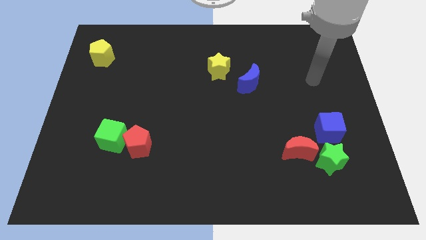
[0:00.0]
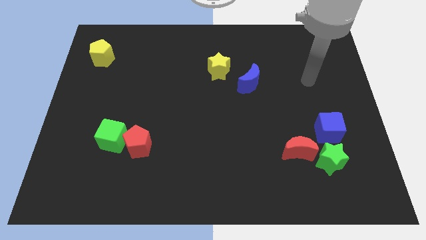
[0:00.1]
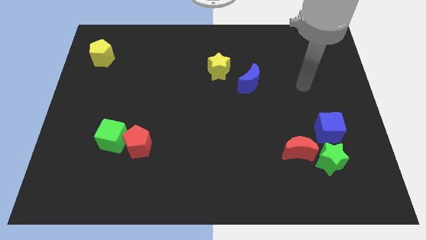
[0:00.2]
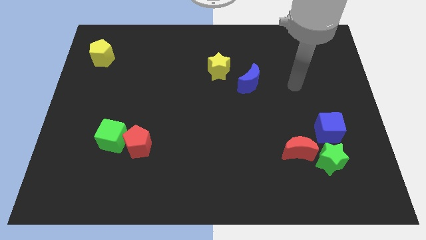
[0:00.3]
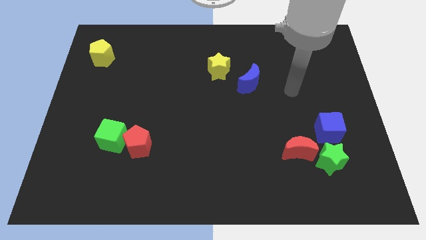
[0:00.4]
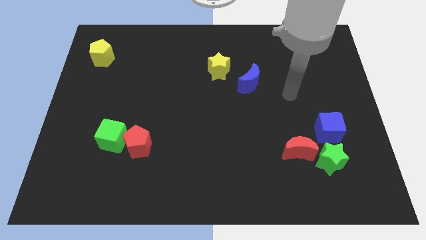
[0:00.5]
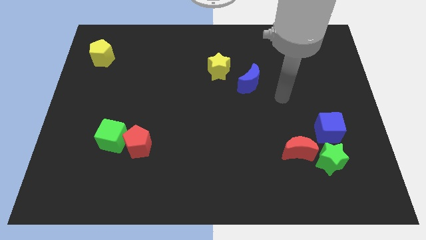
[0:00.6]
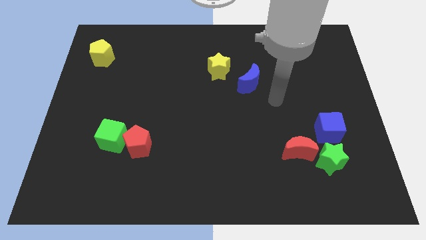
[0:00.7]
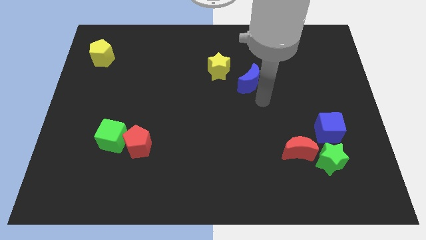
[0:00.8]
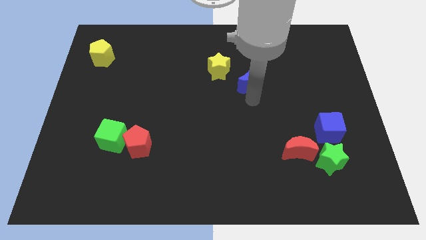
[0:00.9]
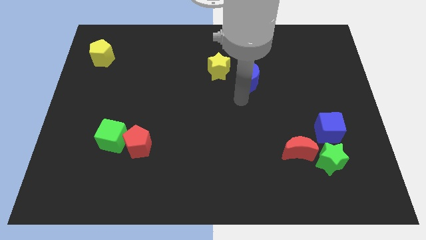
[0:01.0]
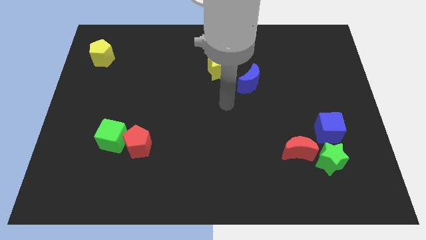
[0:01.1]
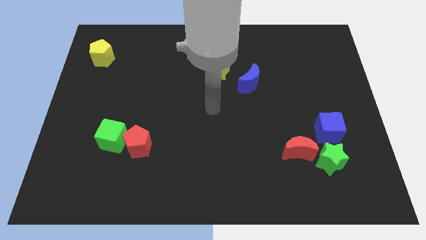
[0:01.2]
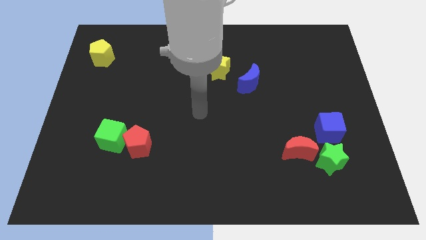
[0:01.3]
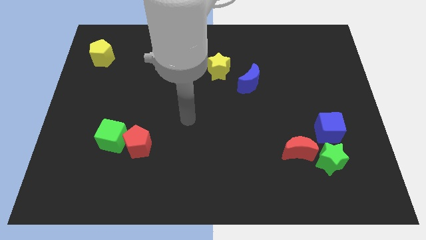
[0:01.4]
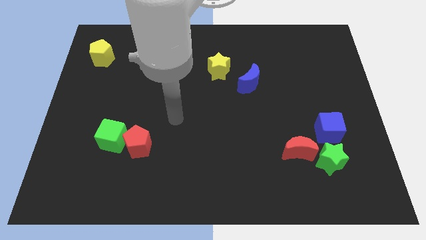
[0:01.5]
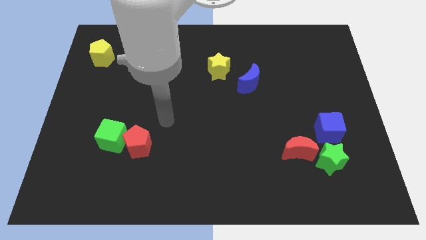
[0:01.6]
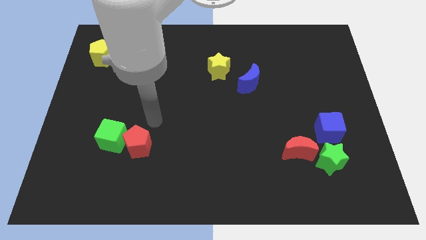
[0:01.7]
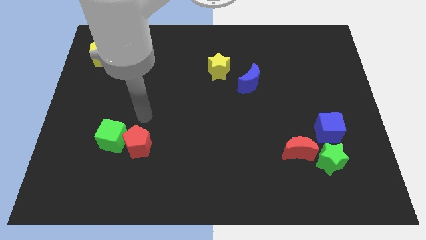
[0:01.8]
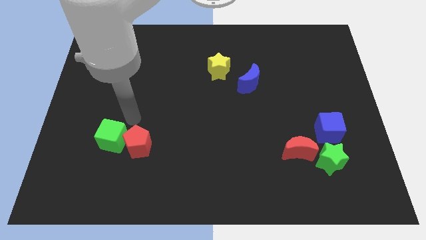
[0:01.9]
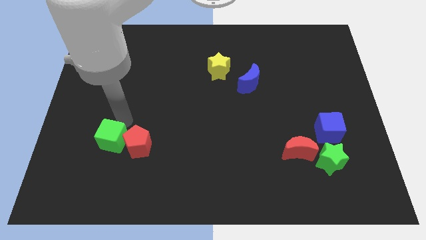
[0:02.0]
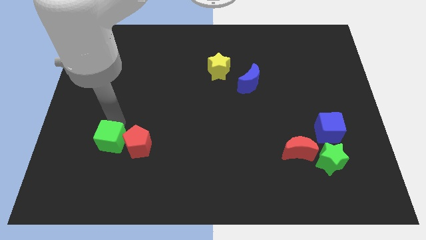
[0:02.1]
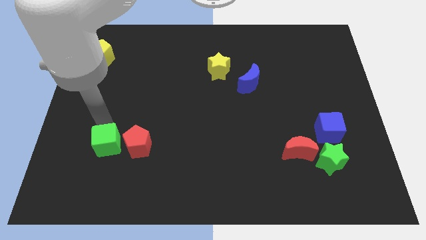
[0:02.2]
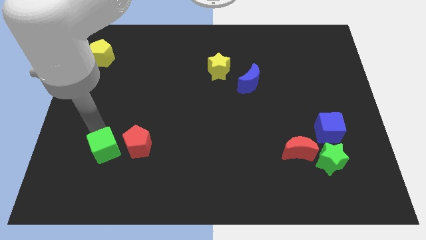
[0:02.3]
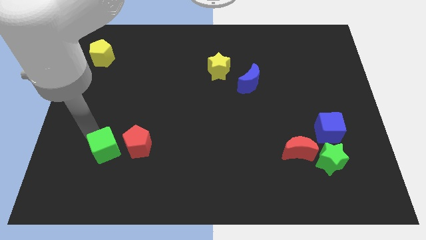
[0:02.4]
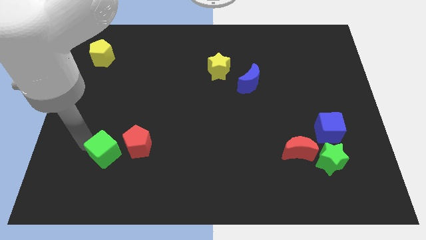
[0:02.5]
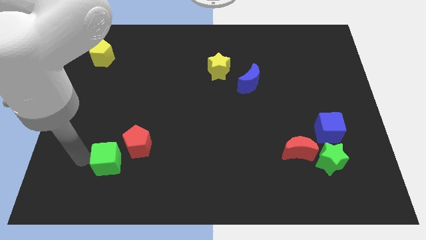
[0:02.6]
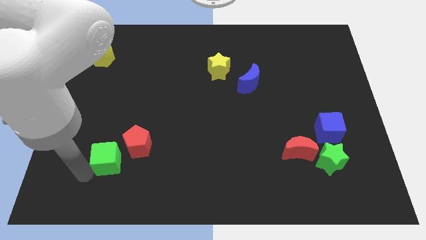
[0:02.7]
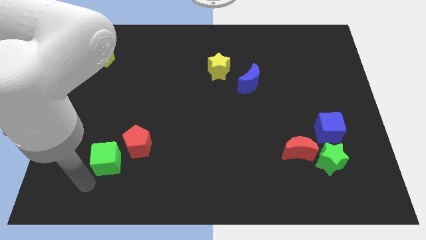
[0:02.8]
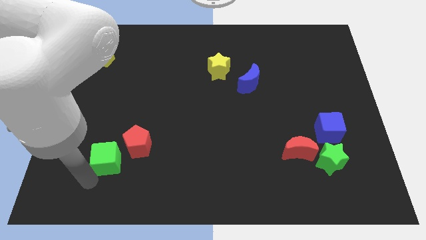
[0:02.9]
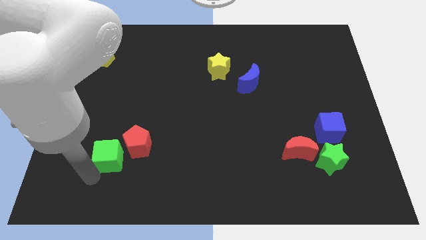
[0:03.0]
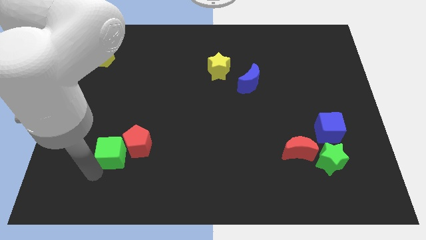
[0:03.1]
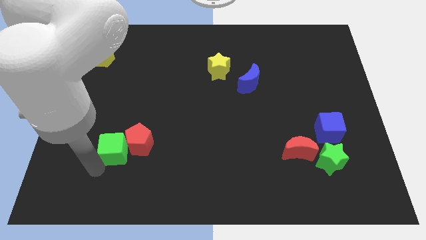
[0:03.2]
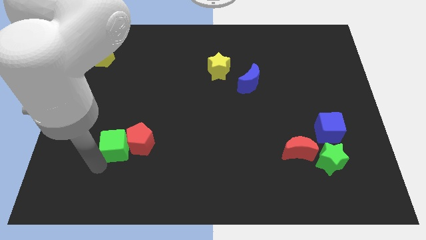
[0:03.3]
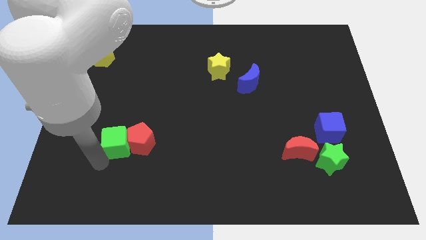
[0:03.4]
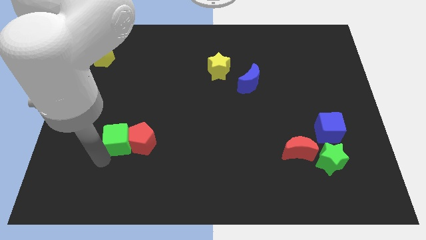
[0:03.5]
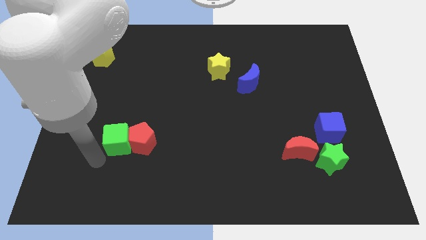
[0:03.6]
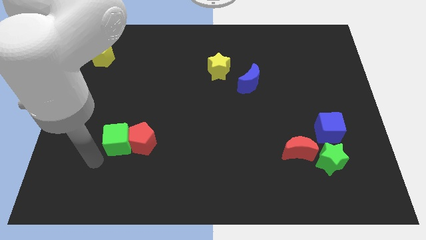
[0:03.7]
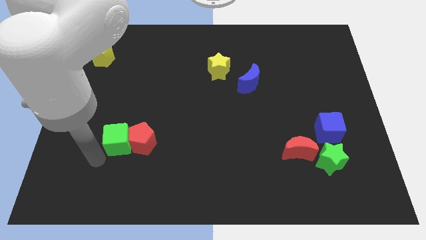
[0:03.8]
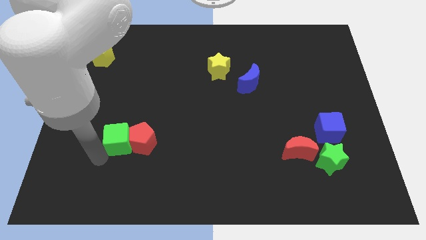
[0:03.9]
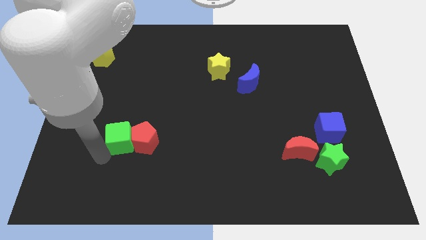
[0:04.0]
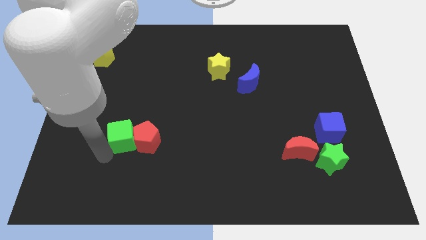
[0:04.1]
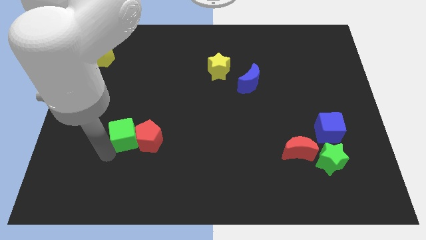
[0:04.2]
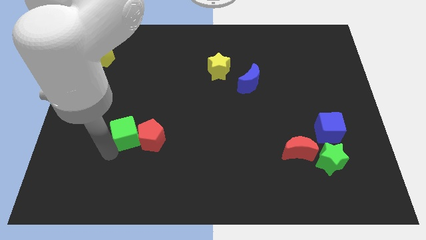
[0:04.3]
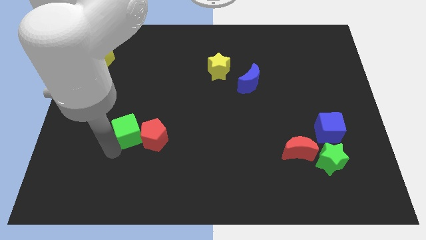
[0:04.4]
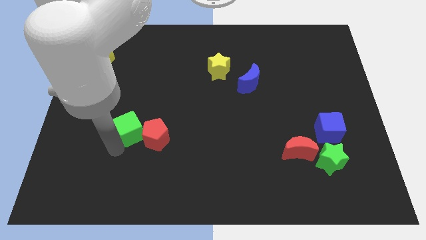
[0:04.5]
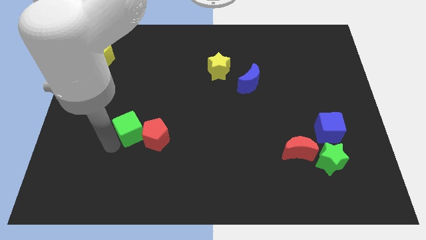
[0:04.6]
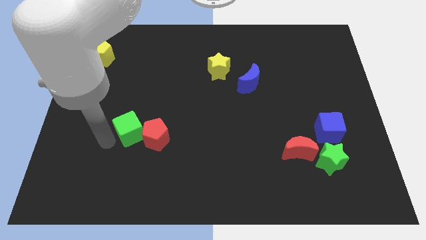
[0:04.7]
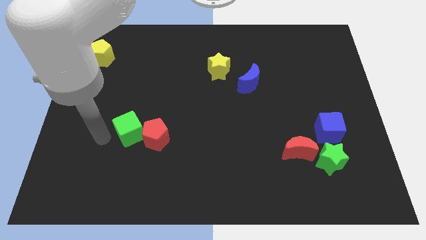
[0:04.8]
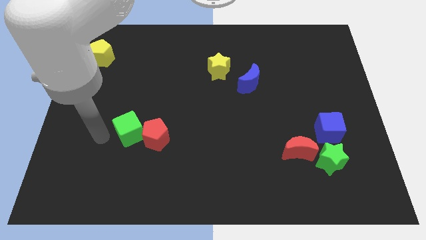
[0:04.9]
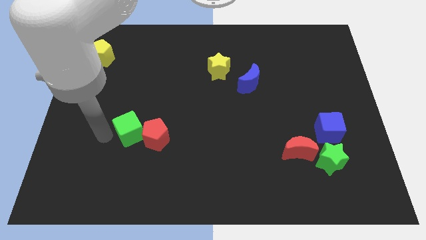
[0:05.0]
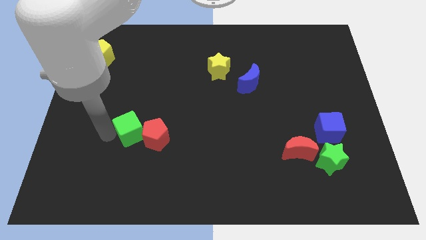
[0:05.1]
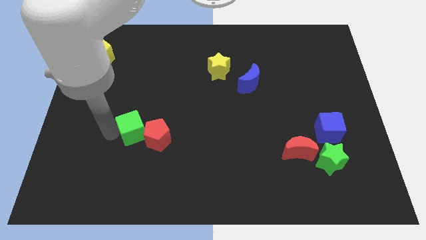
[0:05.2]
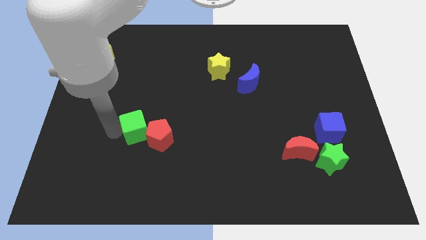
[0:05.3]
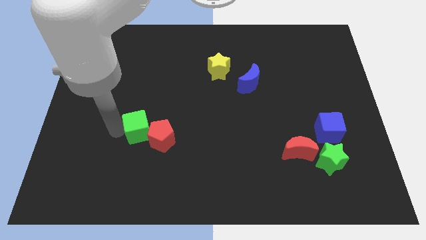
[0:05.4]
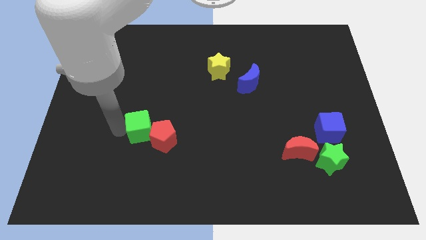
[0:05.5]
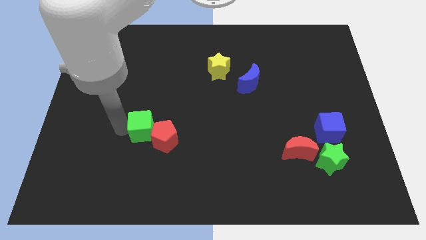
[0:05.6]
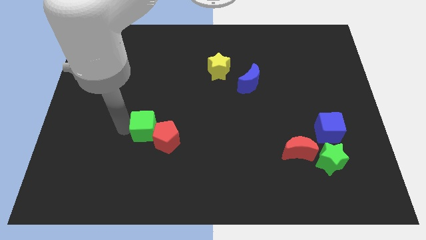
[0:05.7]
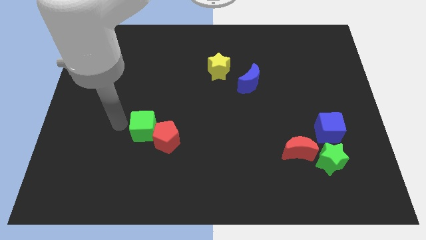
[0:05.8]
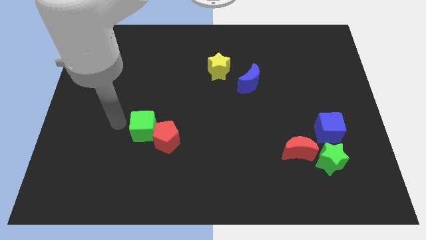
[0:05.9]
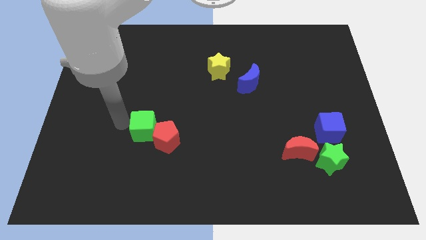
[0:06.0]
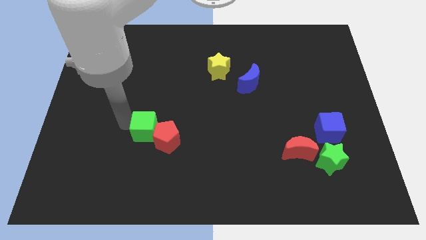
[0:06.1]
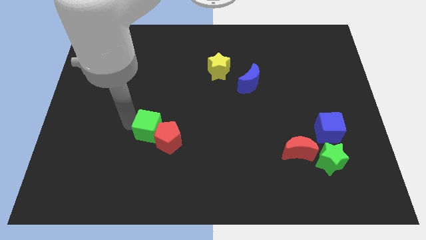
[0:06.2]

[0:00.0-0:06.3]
move the green cube to the right slightly

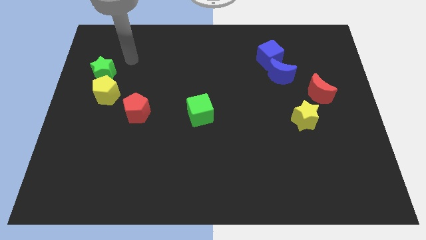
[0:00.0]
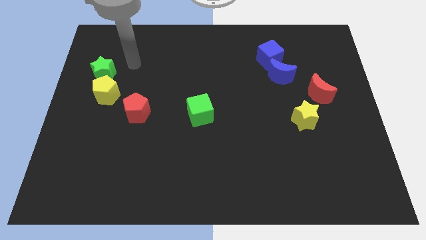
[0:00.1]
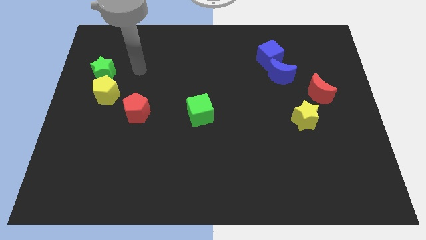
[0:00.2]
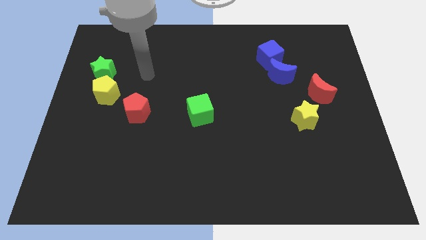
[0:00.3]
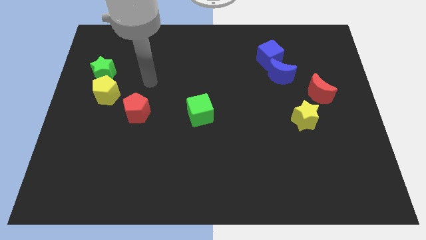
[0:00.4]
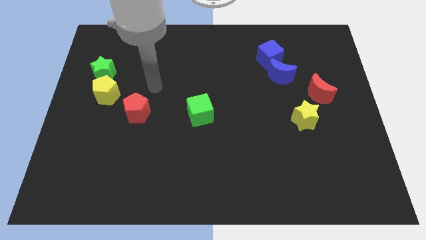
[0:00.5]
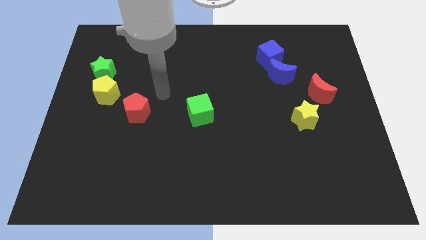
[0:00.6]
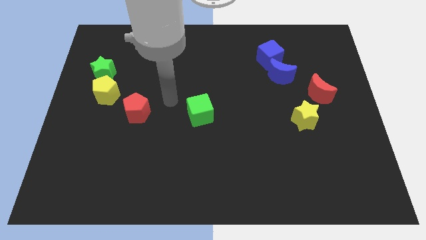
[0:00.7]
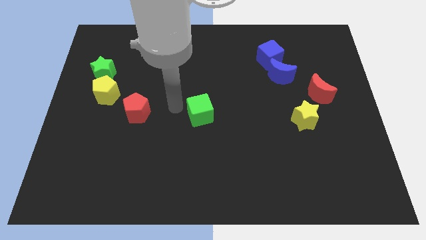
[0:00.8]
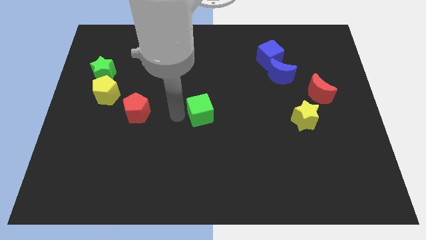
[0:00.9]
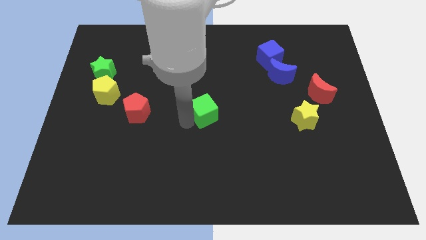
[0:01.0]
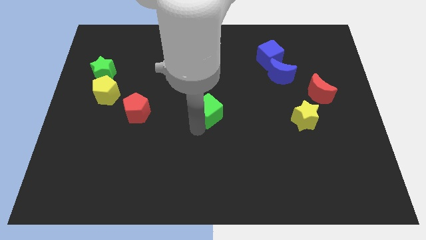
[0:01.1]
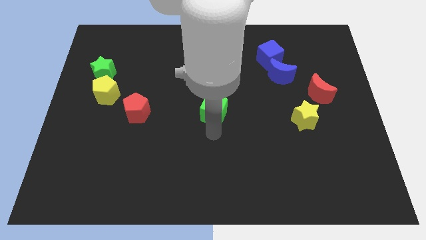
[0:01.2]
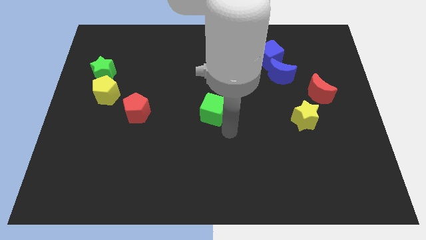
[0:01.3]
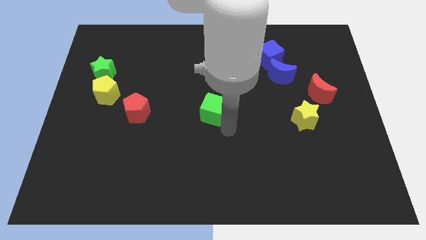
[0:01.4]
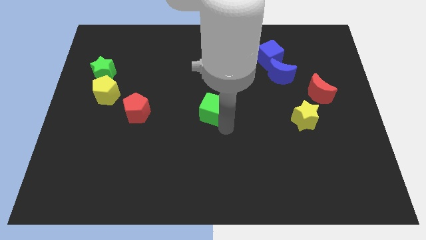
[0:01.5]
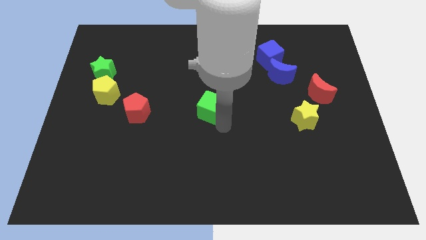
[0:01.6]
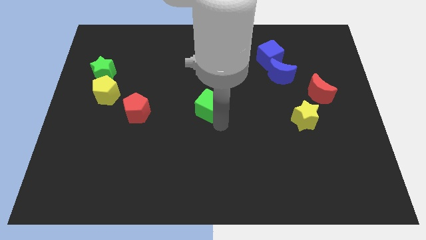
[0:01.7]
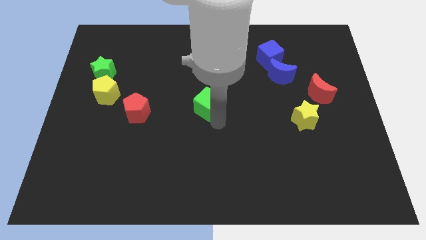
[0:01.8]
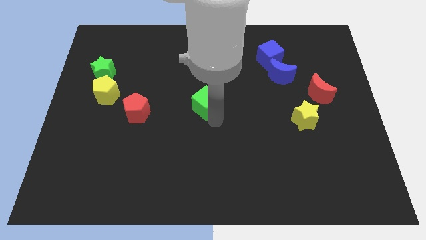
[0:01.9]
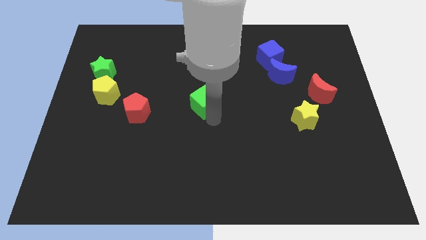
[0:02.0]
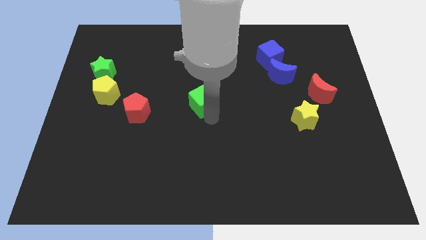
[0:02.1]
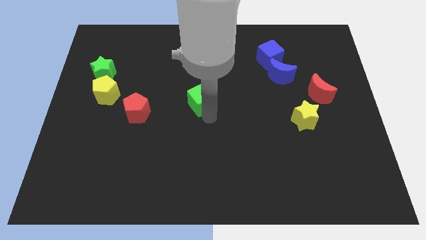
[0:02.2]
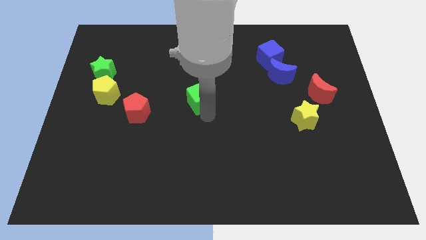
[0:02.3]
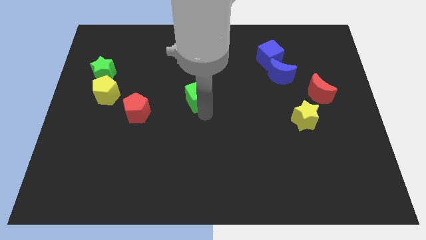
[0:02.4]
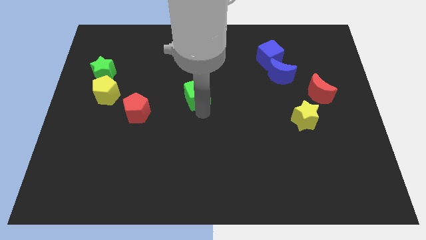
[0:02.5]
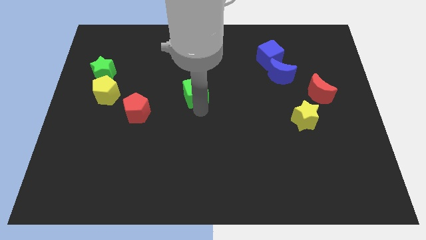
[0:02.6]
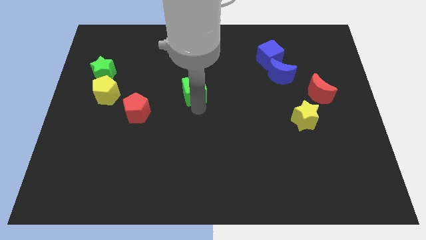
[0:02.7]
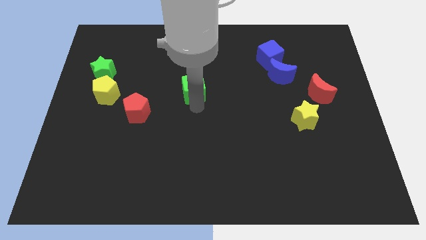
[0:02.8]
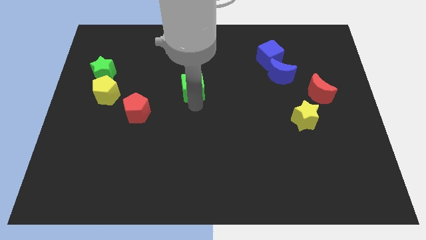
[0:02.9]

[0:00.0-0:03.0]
slide the green cube slightly up
